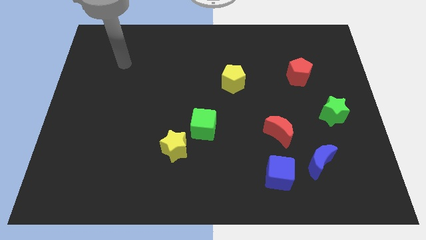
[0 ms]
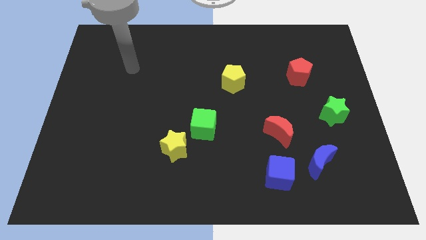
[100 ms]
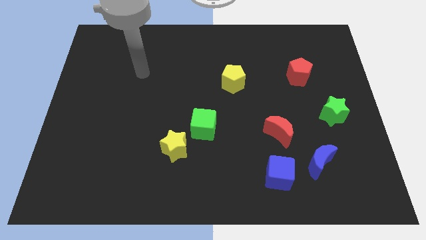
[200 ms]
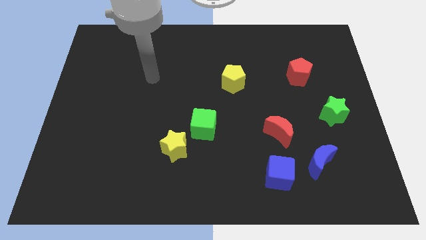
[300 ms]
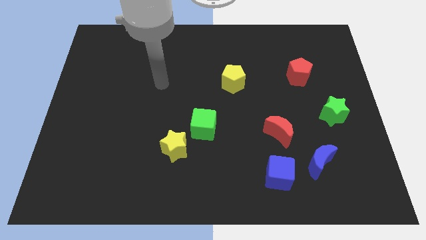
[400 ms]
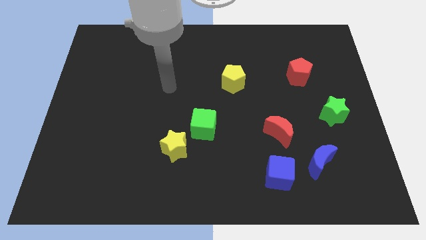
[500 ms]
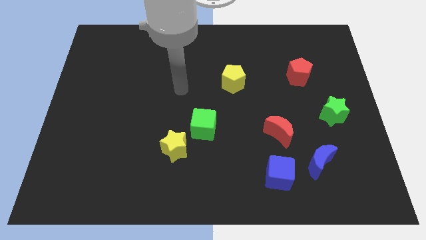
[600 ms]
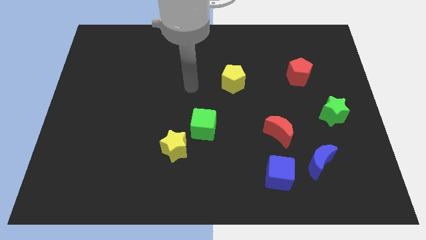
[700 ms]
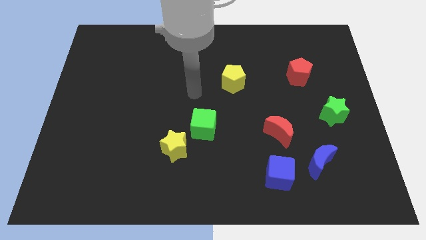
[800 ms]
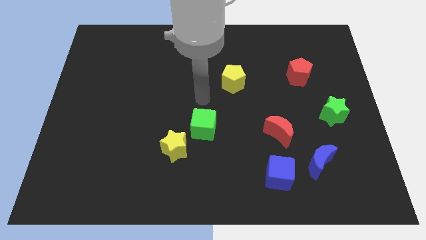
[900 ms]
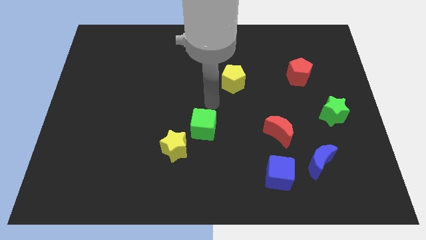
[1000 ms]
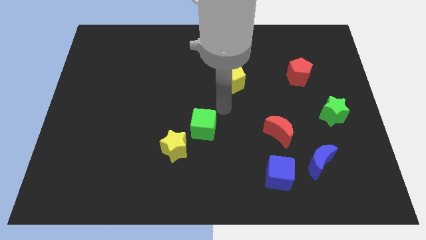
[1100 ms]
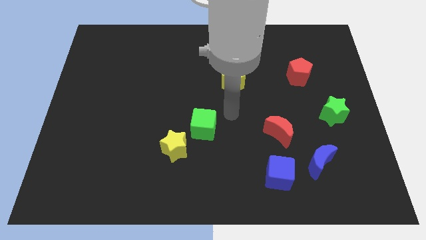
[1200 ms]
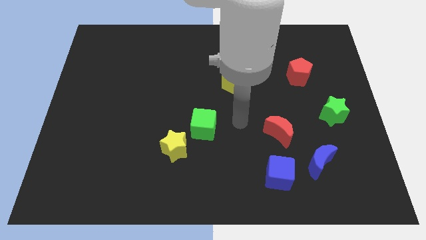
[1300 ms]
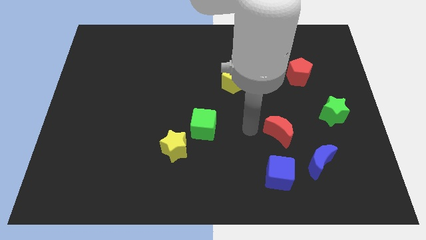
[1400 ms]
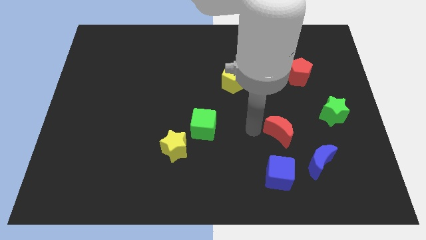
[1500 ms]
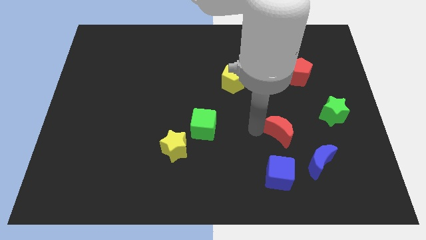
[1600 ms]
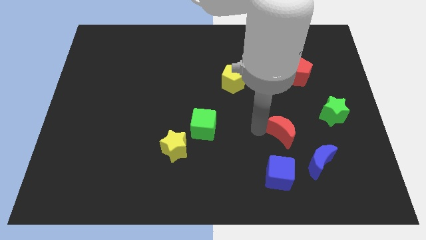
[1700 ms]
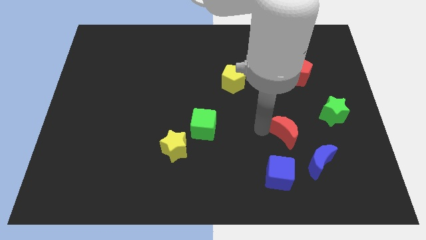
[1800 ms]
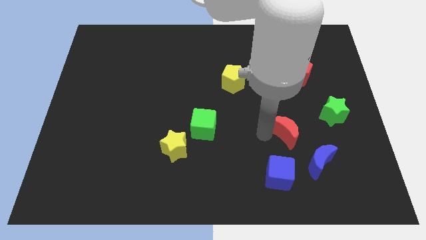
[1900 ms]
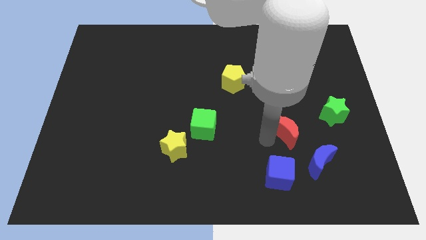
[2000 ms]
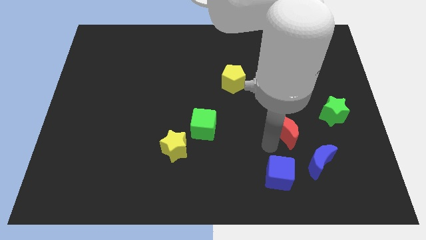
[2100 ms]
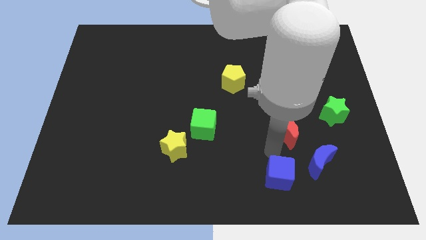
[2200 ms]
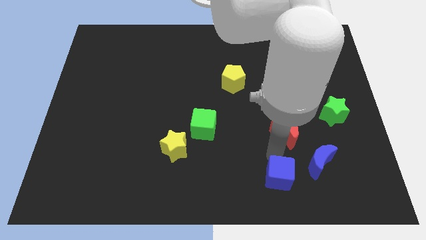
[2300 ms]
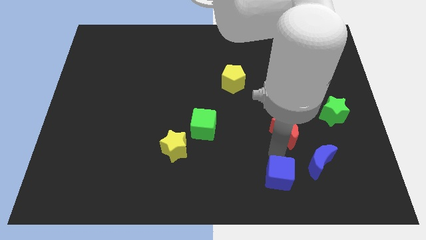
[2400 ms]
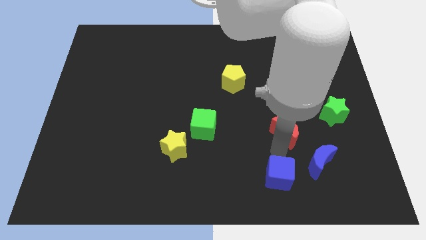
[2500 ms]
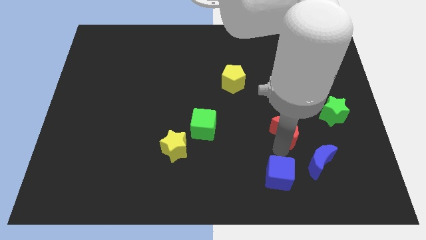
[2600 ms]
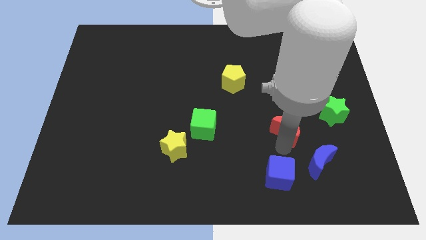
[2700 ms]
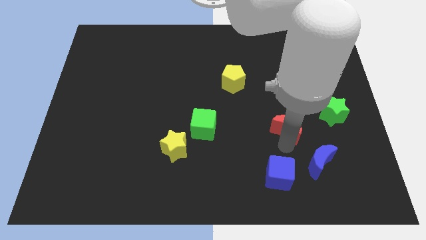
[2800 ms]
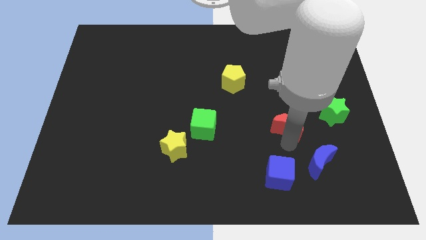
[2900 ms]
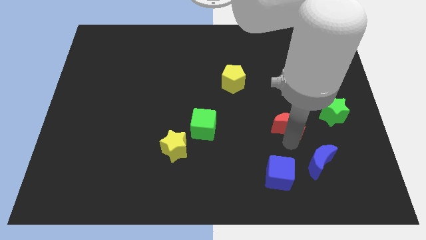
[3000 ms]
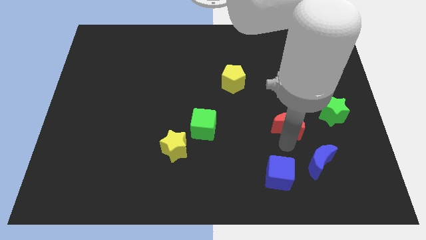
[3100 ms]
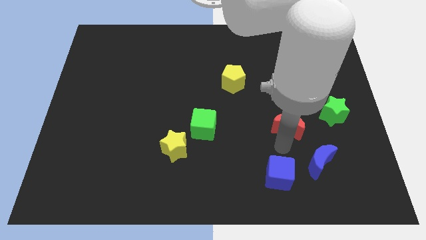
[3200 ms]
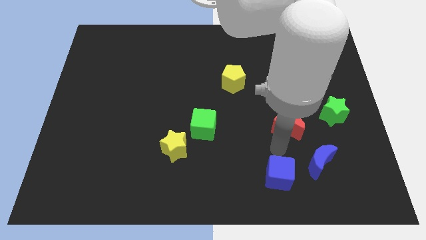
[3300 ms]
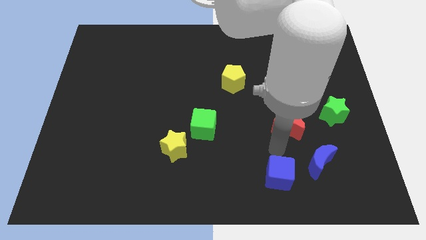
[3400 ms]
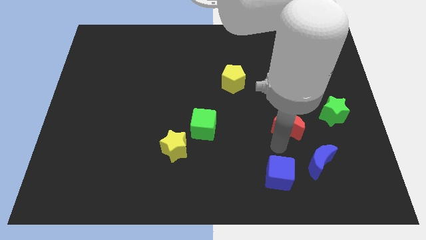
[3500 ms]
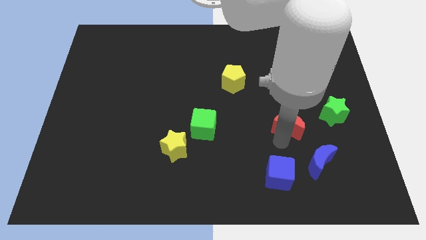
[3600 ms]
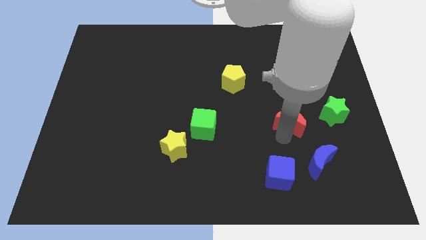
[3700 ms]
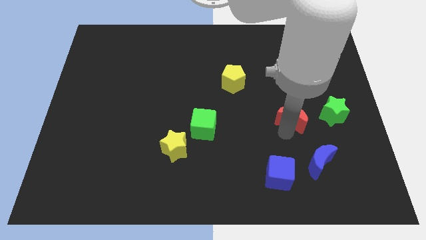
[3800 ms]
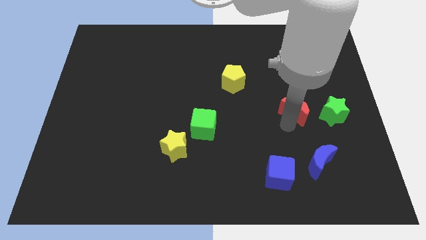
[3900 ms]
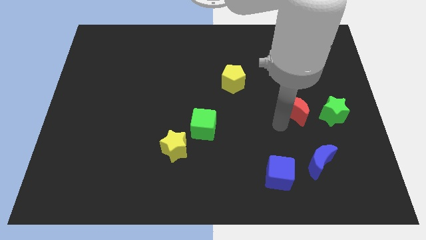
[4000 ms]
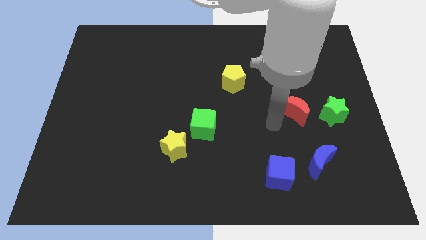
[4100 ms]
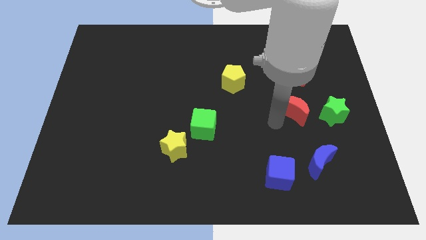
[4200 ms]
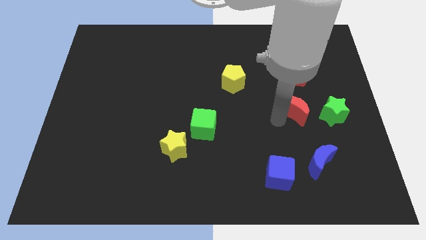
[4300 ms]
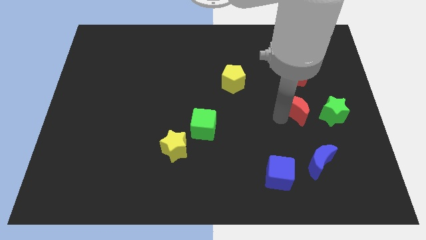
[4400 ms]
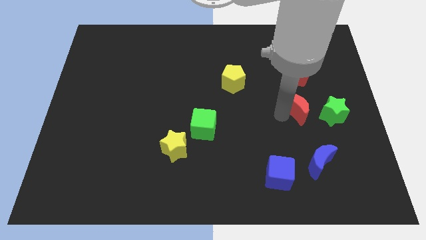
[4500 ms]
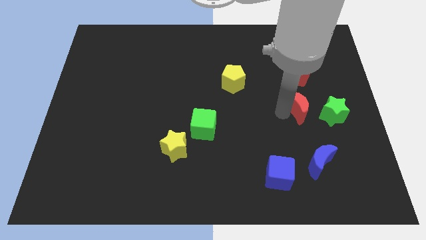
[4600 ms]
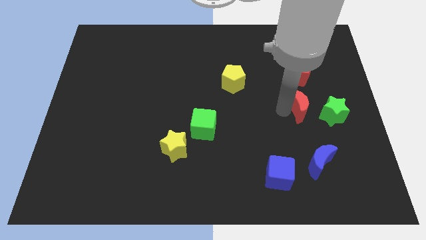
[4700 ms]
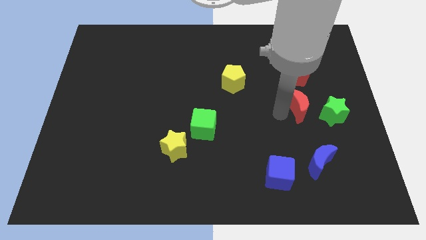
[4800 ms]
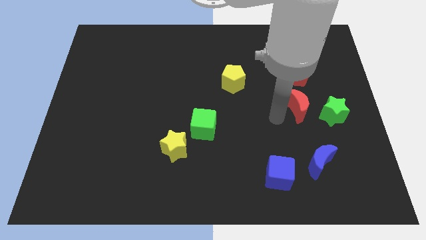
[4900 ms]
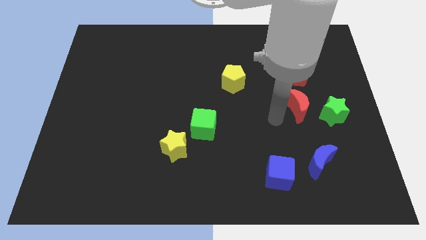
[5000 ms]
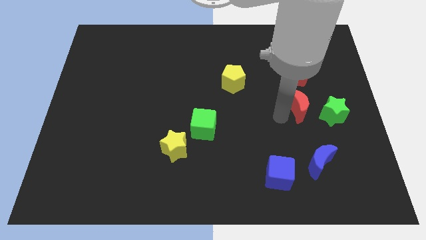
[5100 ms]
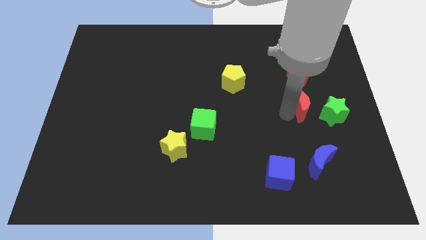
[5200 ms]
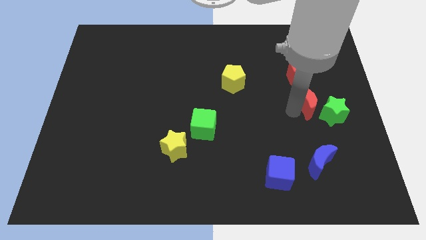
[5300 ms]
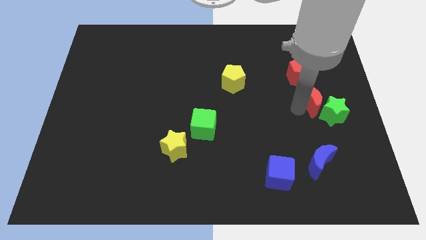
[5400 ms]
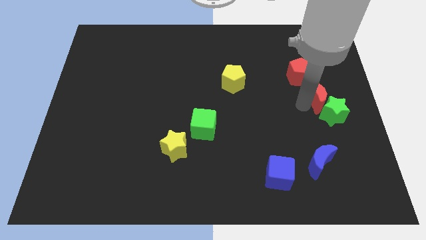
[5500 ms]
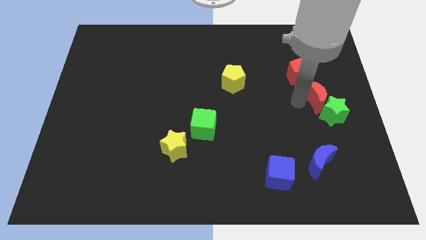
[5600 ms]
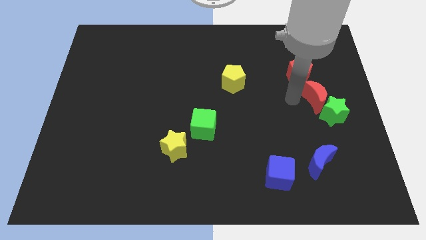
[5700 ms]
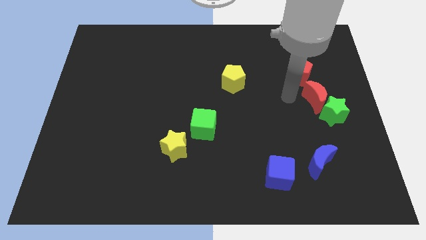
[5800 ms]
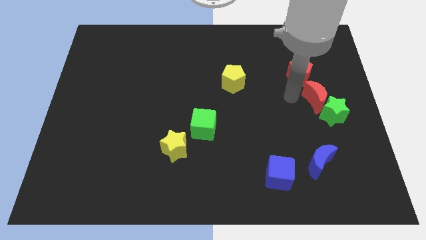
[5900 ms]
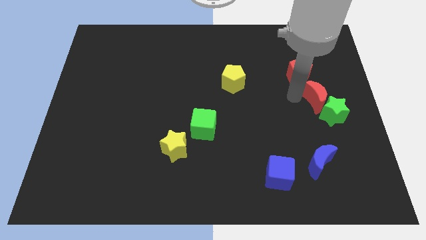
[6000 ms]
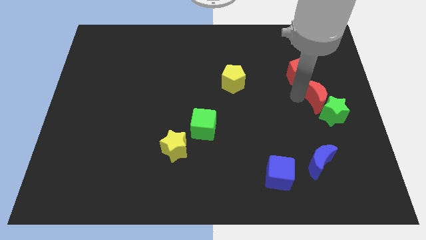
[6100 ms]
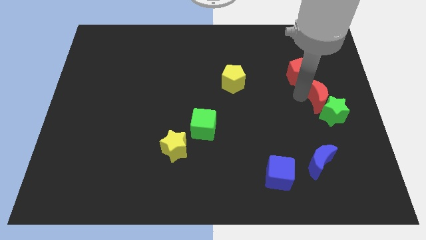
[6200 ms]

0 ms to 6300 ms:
slide the red moon to the center right
